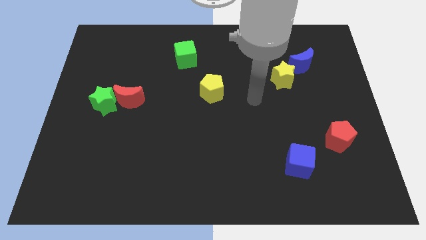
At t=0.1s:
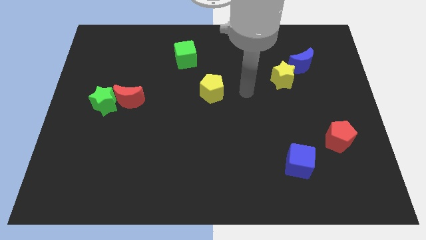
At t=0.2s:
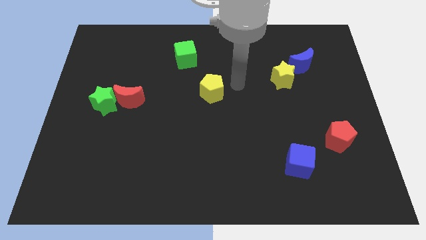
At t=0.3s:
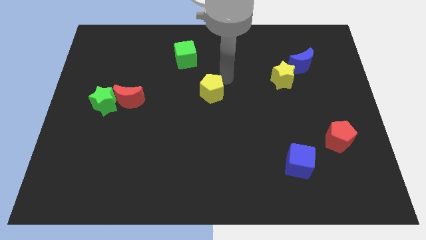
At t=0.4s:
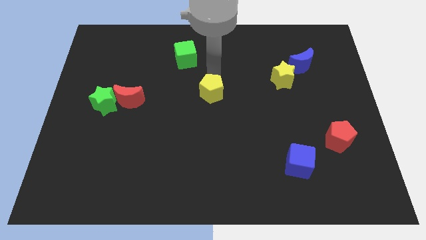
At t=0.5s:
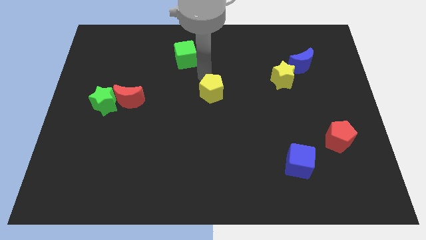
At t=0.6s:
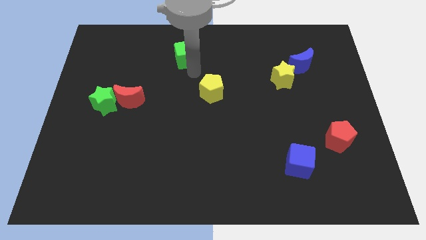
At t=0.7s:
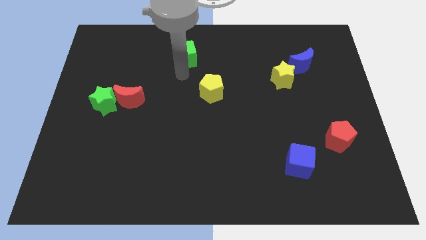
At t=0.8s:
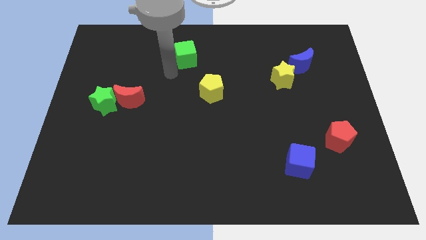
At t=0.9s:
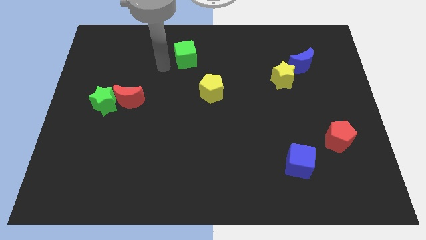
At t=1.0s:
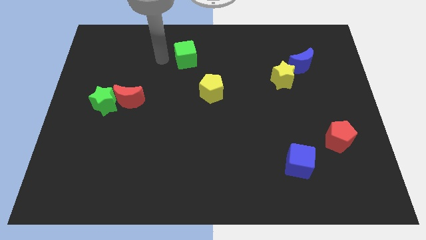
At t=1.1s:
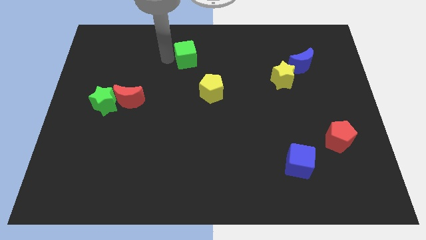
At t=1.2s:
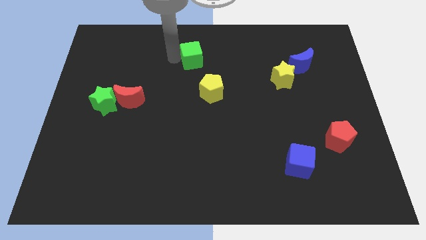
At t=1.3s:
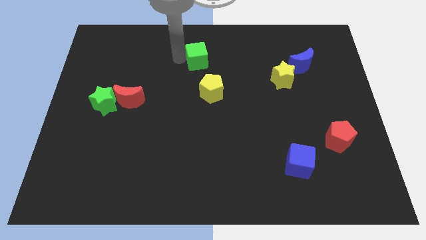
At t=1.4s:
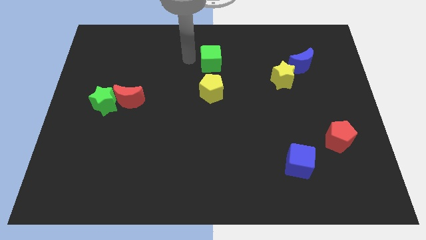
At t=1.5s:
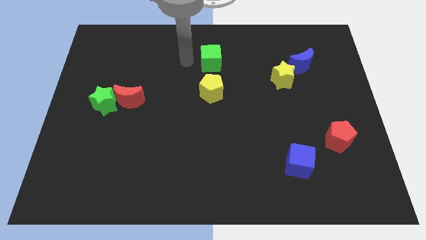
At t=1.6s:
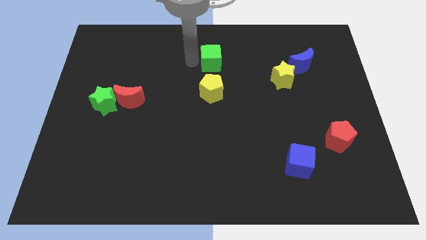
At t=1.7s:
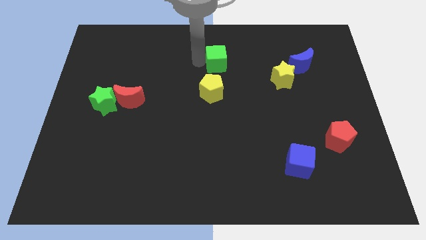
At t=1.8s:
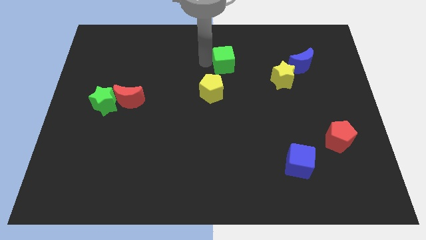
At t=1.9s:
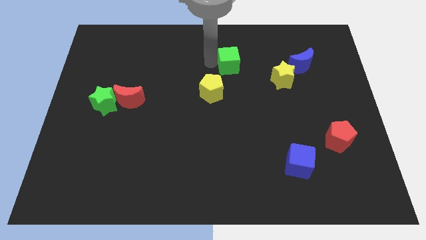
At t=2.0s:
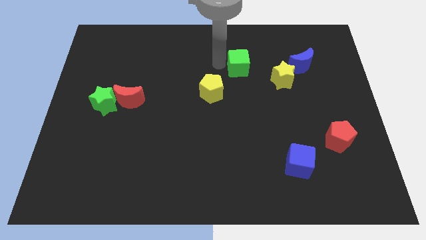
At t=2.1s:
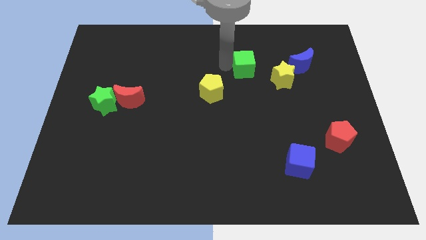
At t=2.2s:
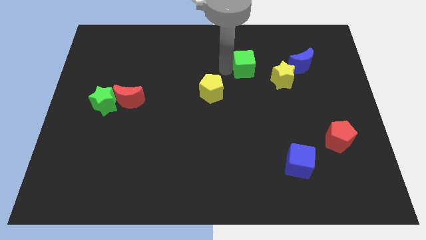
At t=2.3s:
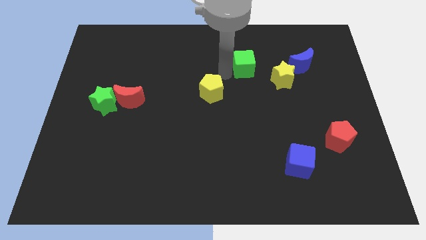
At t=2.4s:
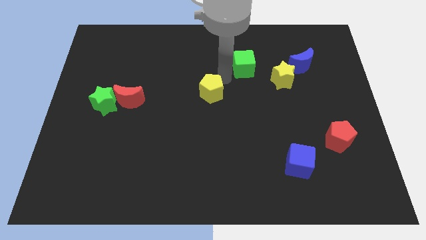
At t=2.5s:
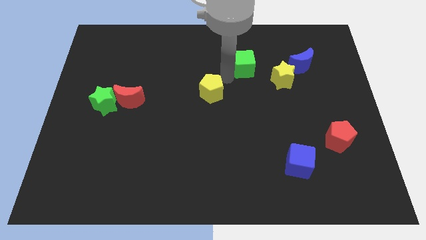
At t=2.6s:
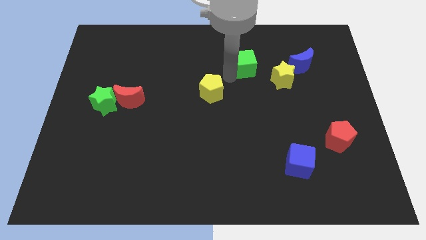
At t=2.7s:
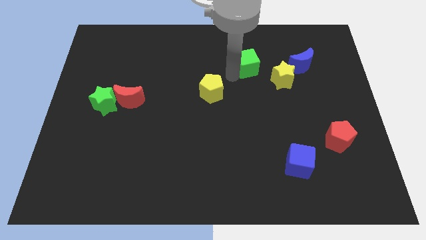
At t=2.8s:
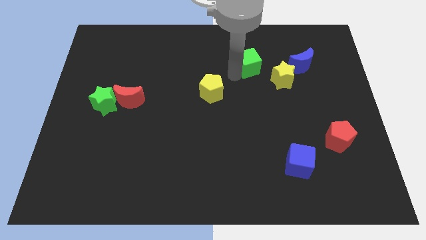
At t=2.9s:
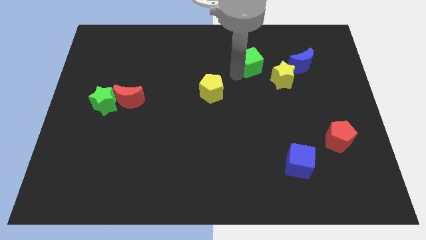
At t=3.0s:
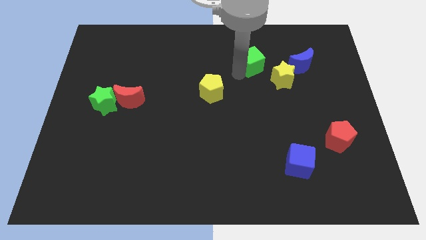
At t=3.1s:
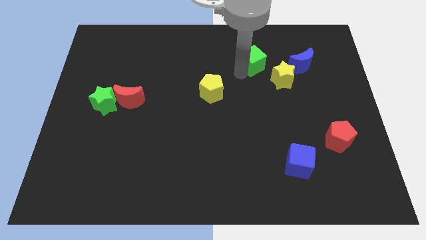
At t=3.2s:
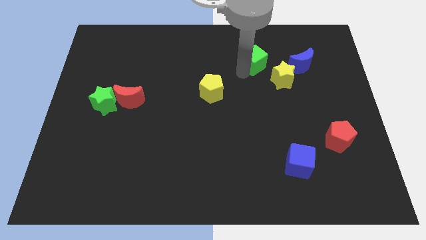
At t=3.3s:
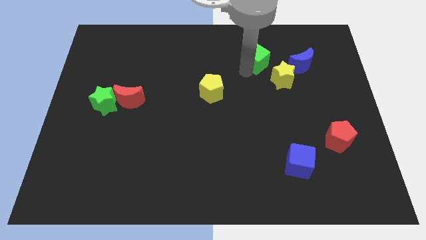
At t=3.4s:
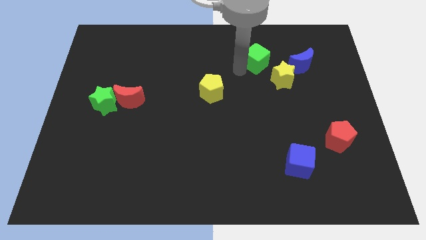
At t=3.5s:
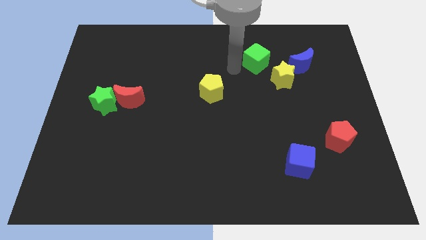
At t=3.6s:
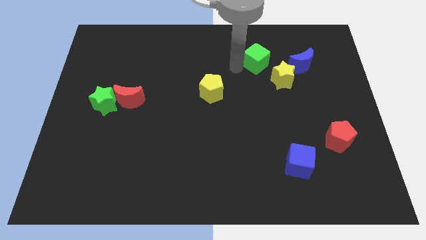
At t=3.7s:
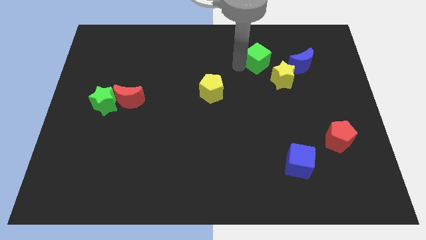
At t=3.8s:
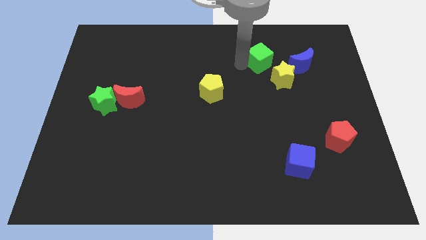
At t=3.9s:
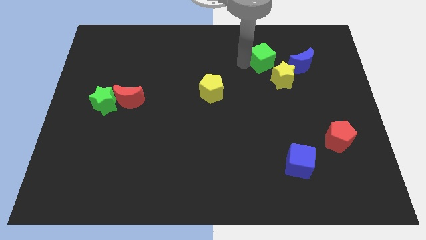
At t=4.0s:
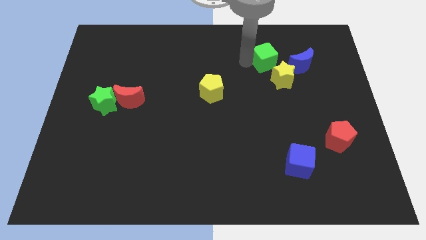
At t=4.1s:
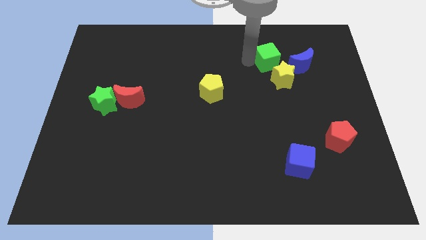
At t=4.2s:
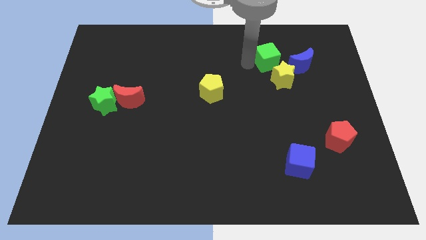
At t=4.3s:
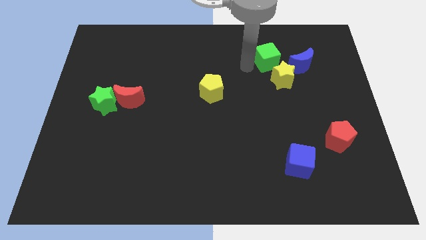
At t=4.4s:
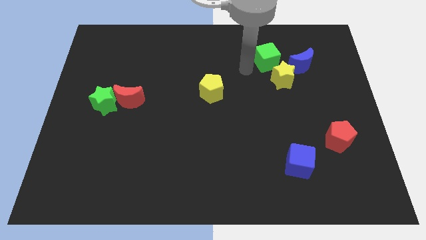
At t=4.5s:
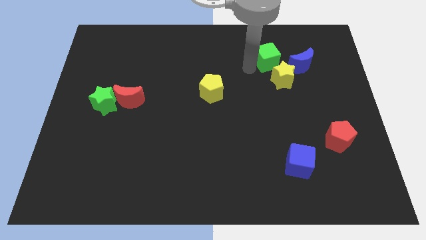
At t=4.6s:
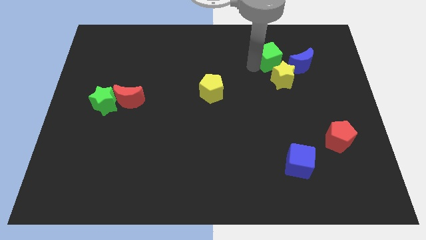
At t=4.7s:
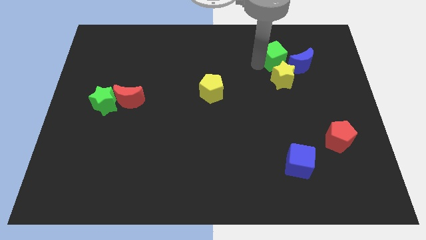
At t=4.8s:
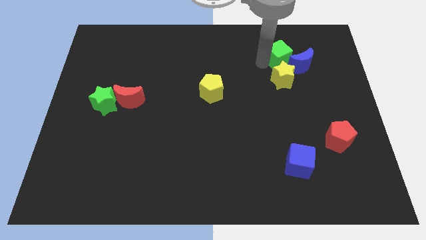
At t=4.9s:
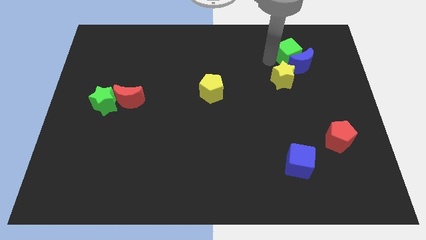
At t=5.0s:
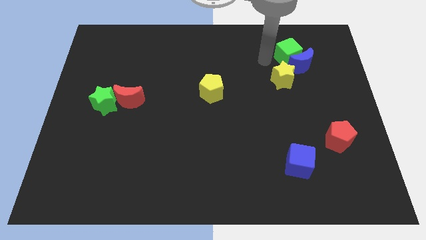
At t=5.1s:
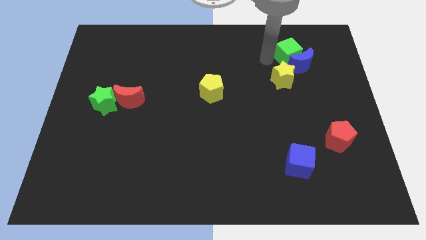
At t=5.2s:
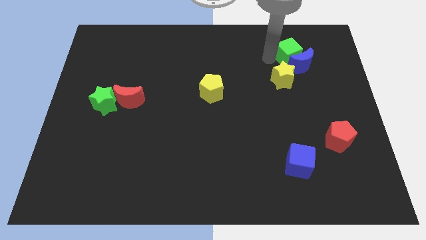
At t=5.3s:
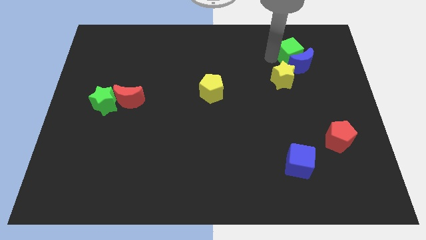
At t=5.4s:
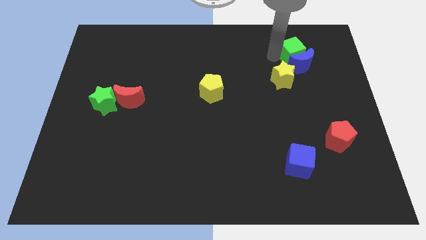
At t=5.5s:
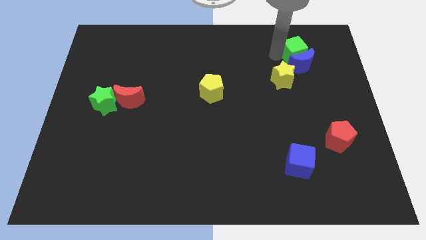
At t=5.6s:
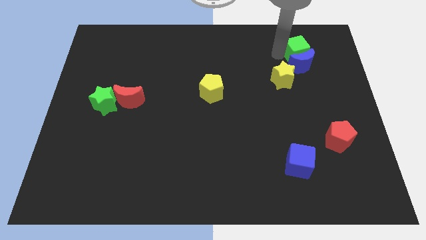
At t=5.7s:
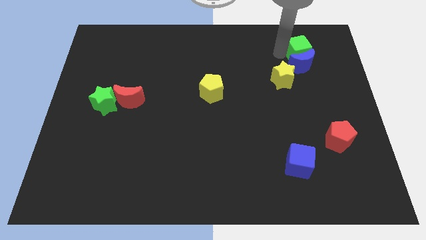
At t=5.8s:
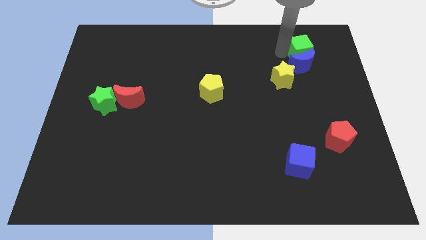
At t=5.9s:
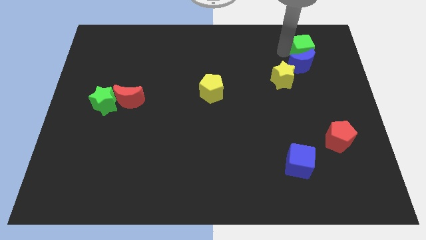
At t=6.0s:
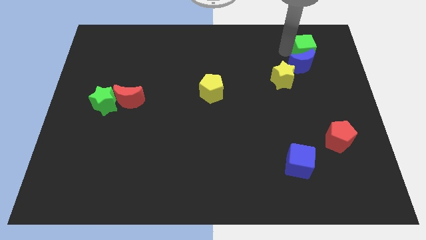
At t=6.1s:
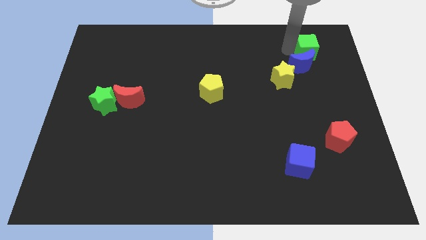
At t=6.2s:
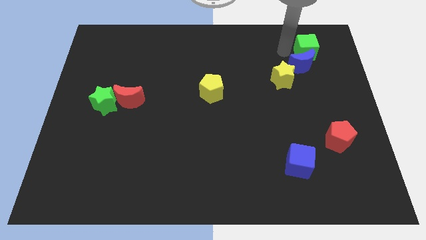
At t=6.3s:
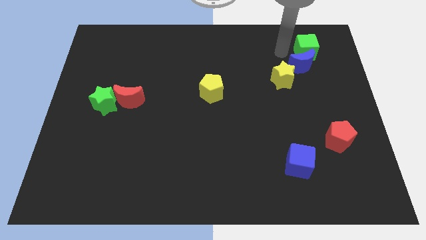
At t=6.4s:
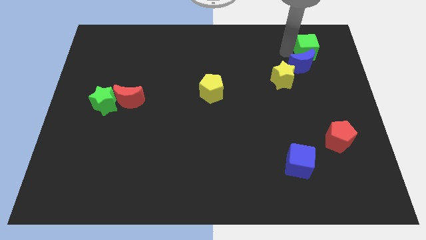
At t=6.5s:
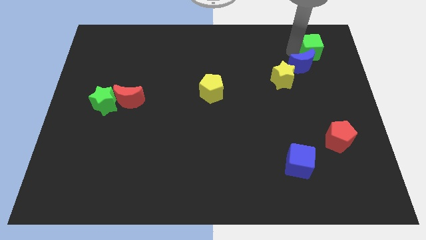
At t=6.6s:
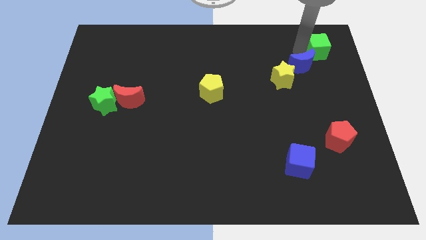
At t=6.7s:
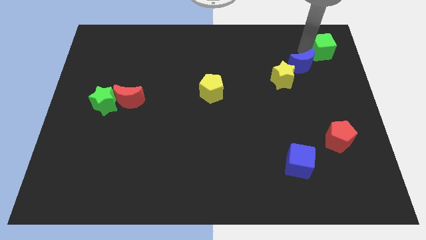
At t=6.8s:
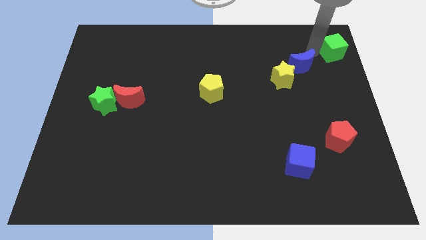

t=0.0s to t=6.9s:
push the green cube to the top right corner
